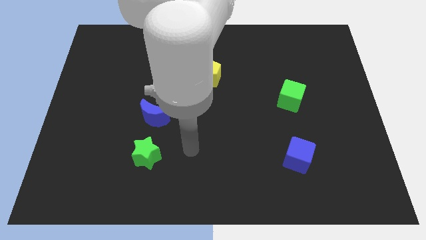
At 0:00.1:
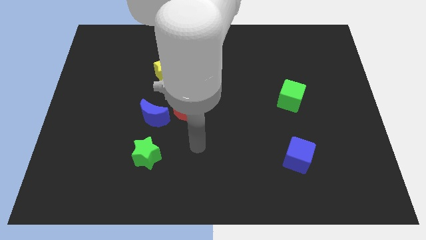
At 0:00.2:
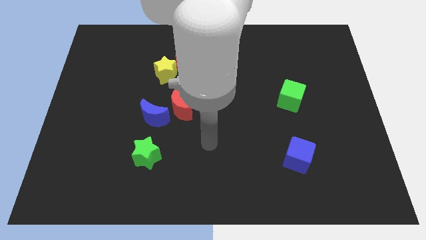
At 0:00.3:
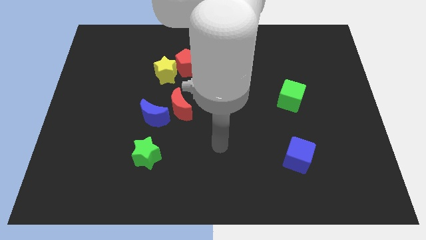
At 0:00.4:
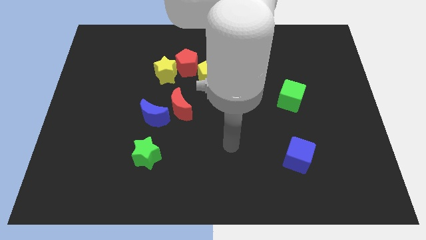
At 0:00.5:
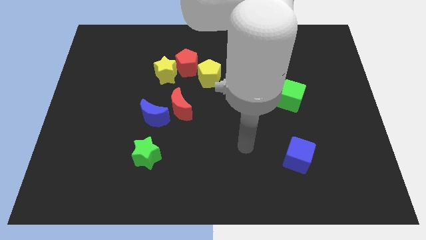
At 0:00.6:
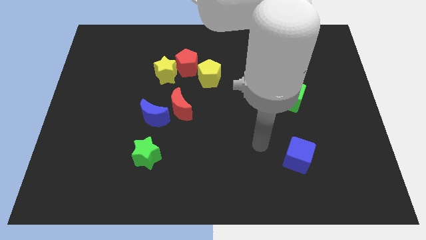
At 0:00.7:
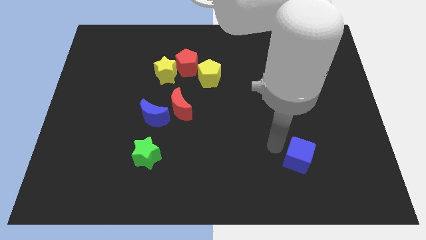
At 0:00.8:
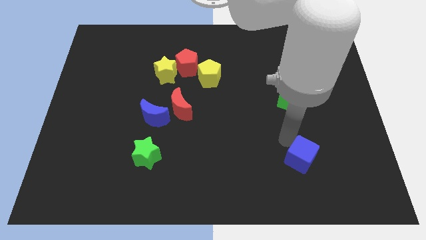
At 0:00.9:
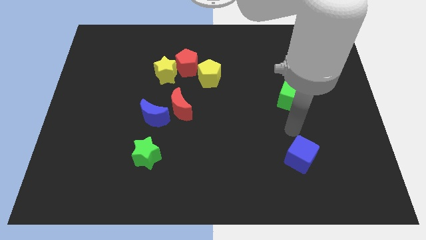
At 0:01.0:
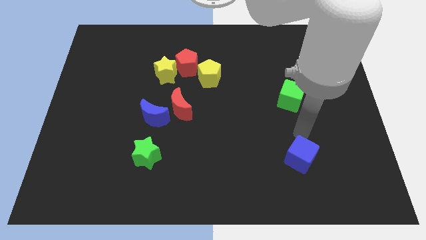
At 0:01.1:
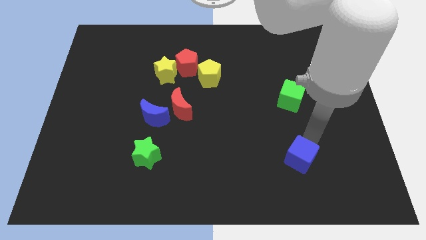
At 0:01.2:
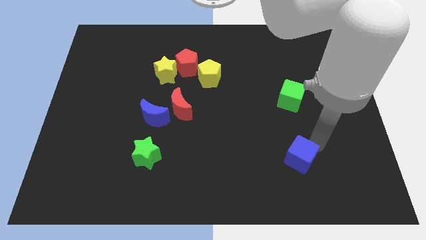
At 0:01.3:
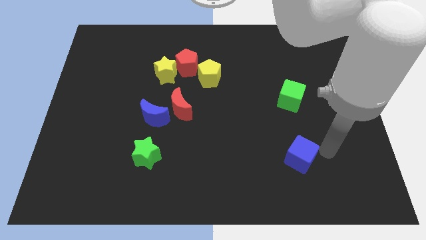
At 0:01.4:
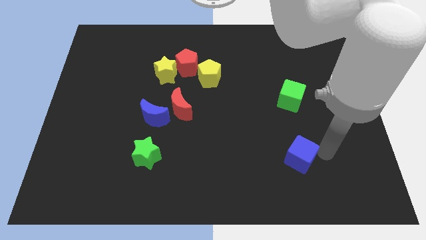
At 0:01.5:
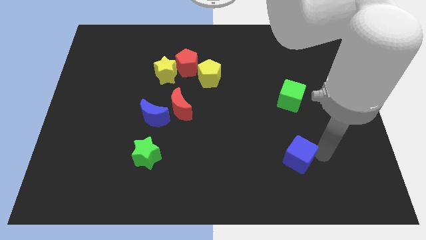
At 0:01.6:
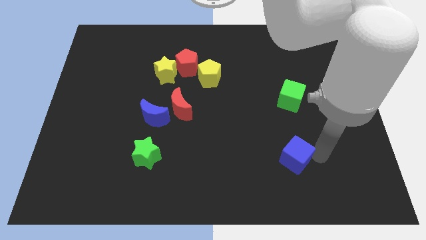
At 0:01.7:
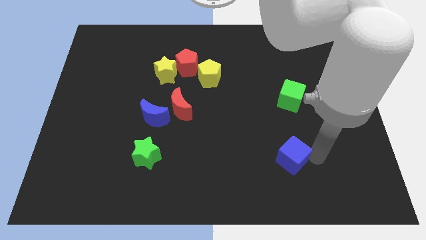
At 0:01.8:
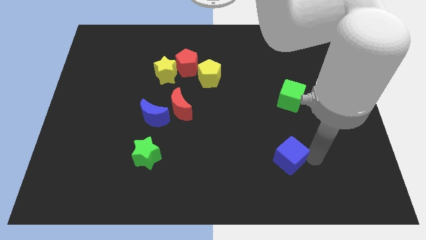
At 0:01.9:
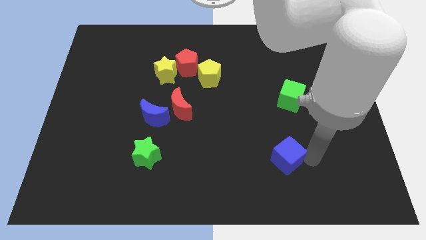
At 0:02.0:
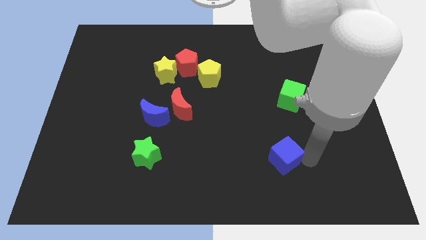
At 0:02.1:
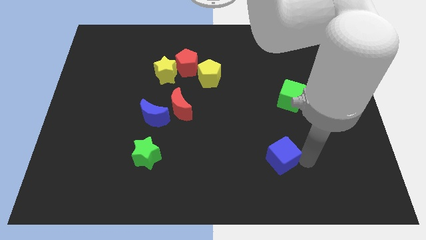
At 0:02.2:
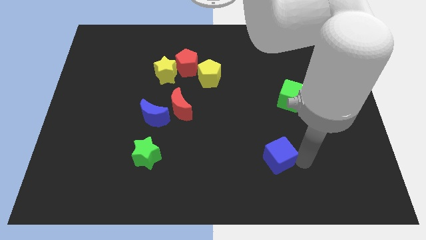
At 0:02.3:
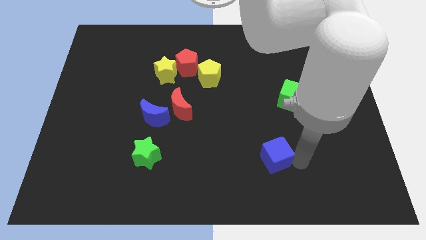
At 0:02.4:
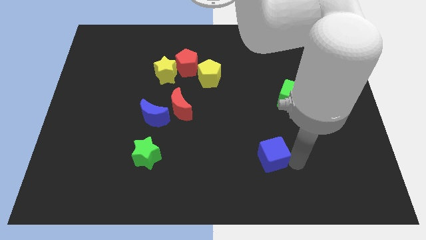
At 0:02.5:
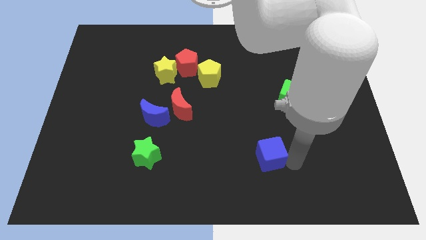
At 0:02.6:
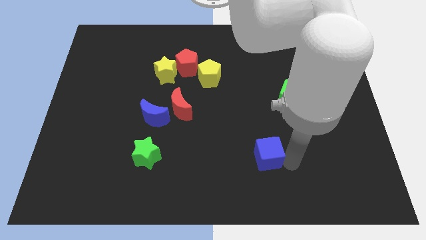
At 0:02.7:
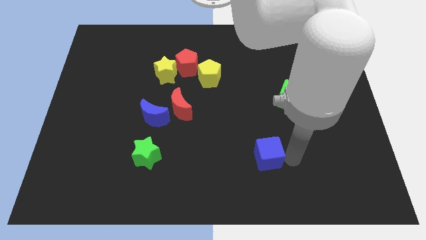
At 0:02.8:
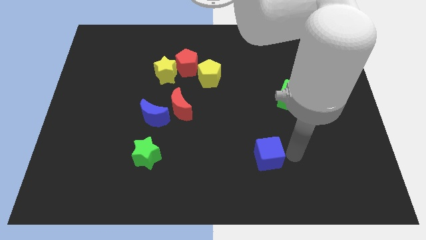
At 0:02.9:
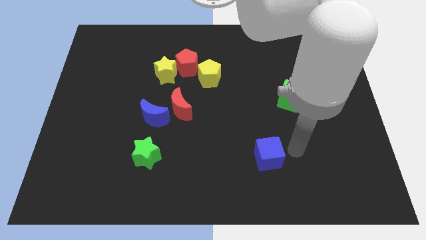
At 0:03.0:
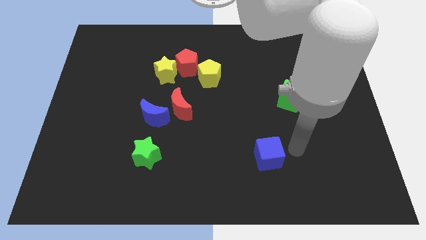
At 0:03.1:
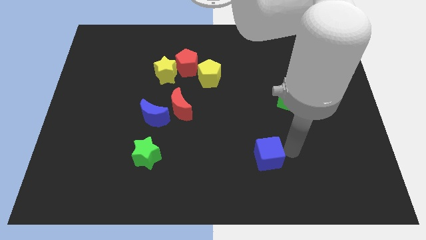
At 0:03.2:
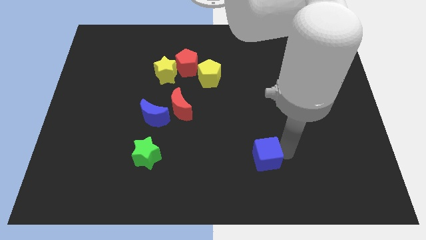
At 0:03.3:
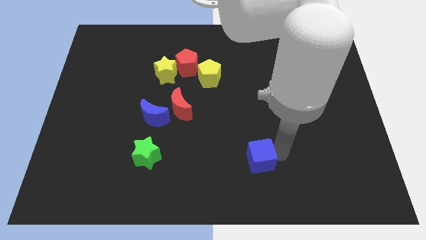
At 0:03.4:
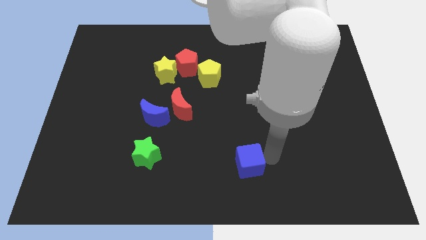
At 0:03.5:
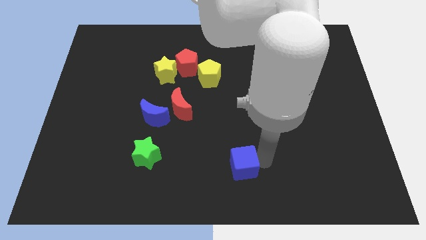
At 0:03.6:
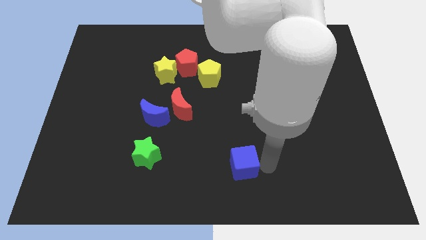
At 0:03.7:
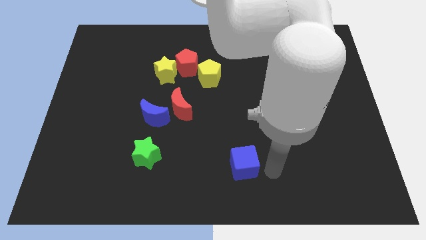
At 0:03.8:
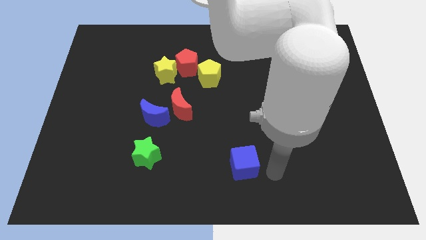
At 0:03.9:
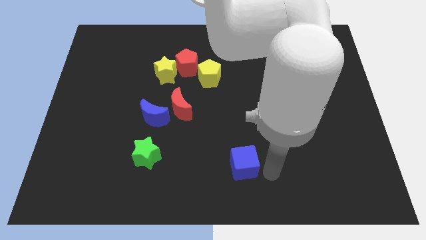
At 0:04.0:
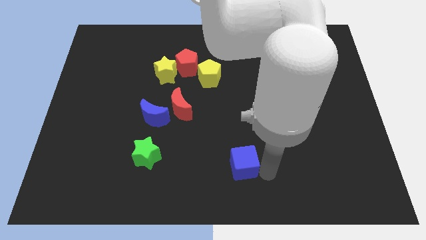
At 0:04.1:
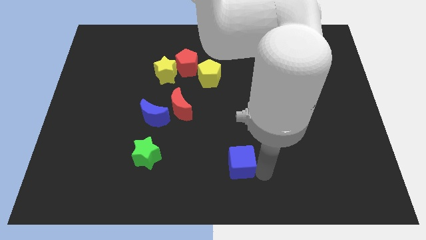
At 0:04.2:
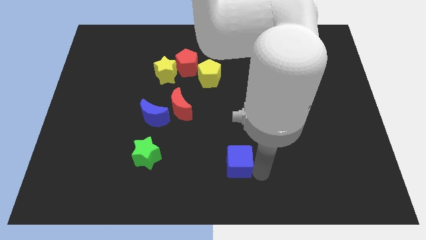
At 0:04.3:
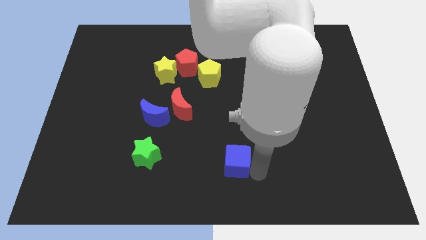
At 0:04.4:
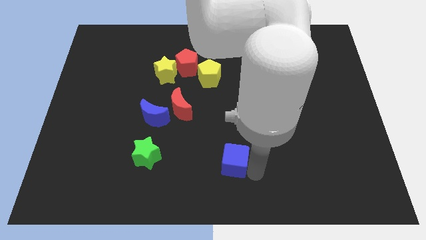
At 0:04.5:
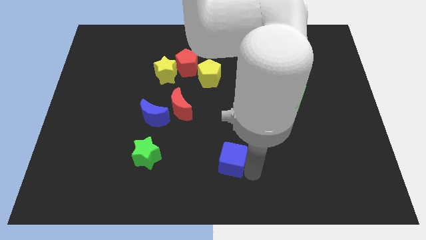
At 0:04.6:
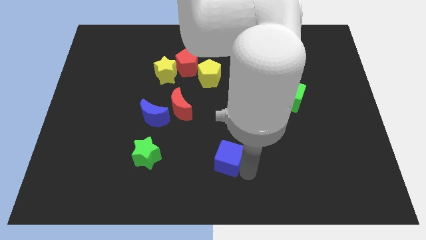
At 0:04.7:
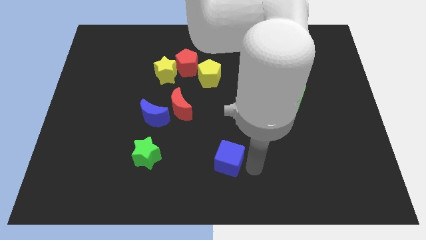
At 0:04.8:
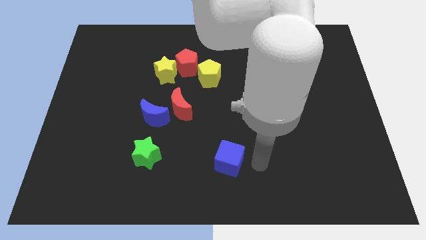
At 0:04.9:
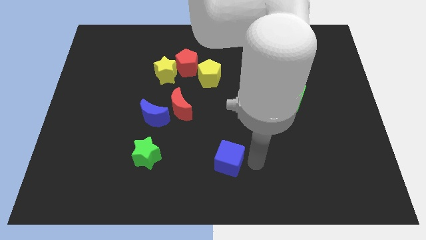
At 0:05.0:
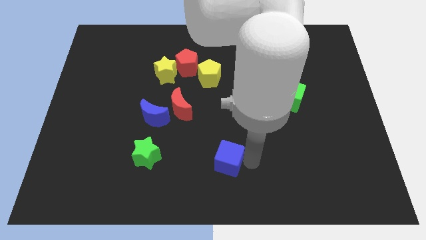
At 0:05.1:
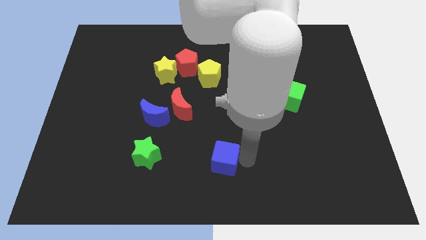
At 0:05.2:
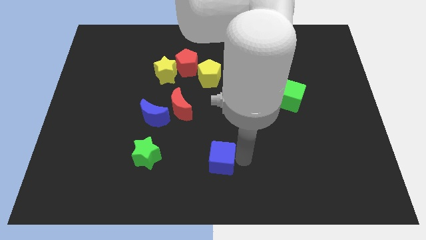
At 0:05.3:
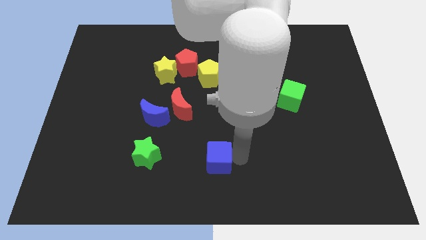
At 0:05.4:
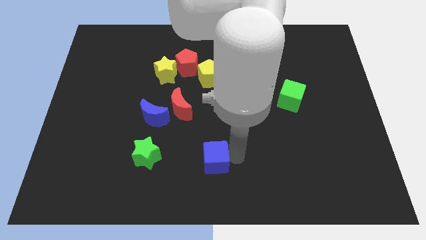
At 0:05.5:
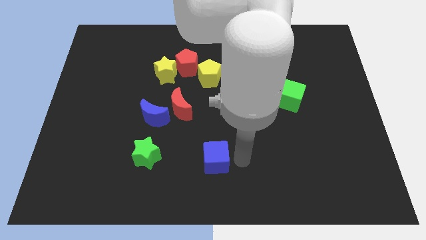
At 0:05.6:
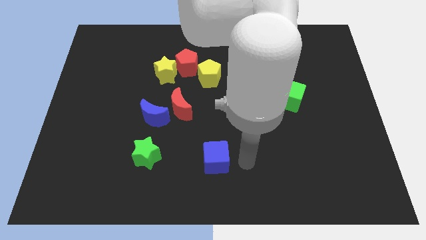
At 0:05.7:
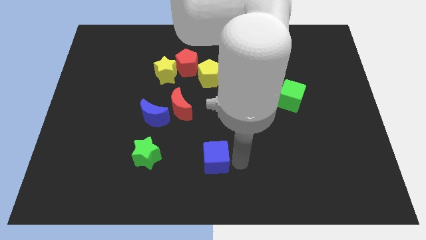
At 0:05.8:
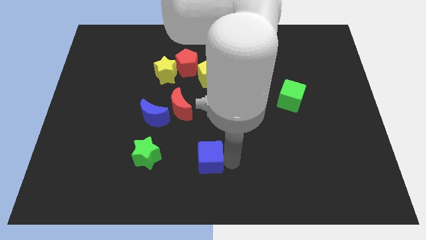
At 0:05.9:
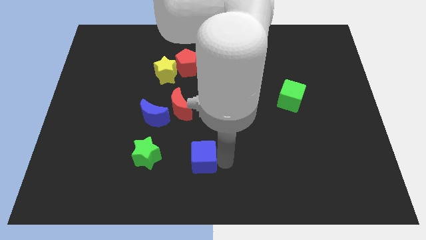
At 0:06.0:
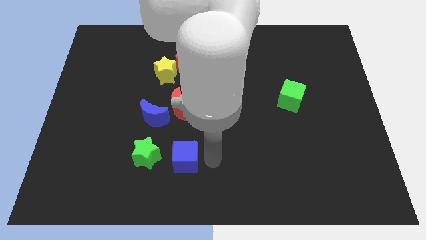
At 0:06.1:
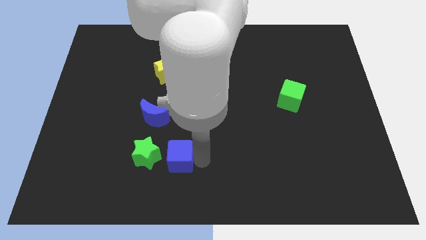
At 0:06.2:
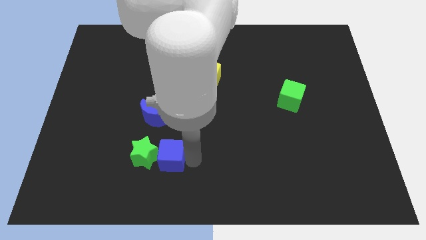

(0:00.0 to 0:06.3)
push the blue cube next to the green star

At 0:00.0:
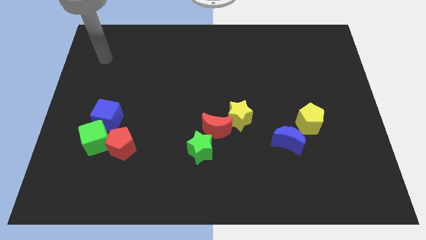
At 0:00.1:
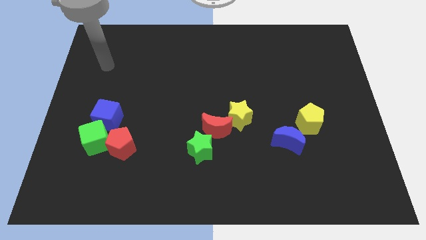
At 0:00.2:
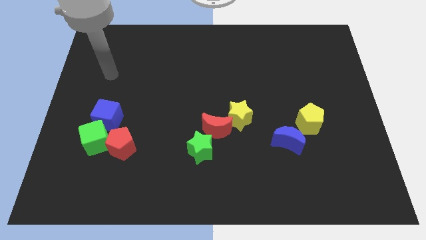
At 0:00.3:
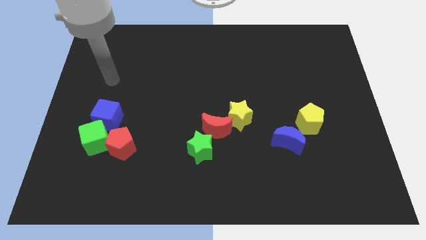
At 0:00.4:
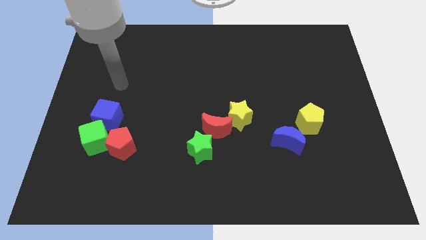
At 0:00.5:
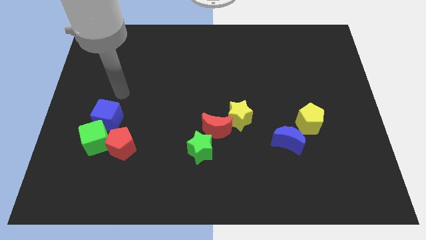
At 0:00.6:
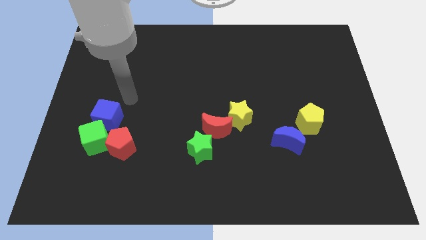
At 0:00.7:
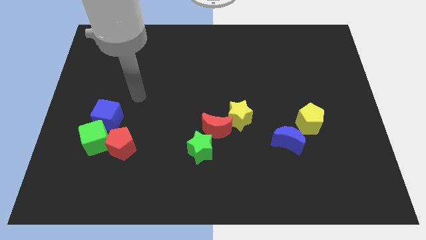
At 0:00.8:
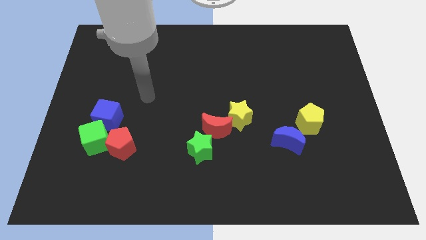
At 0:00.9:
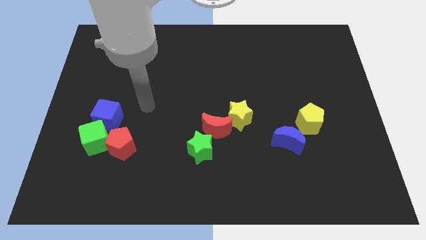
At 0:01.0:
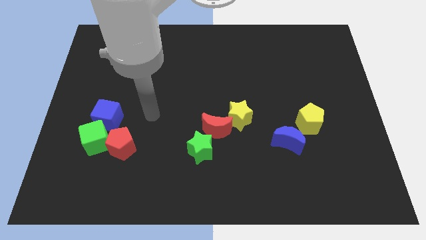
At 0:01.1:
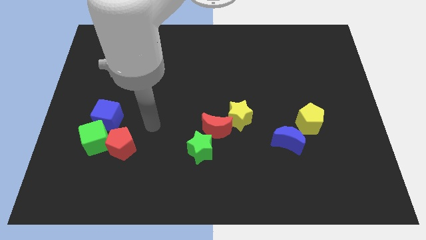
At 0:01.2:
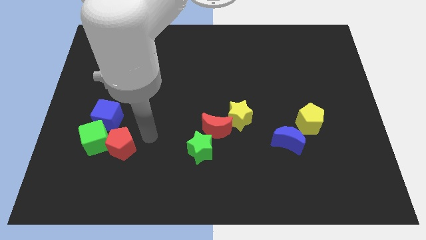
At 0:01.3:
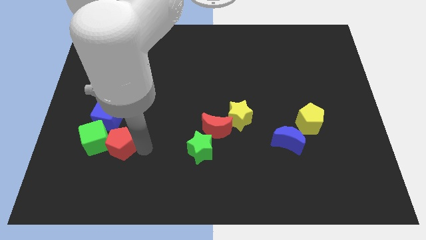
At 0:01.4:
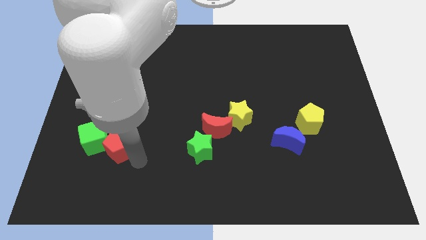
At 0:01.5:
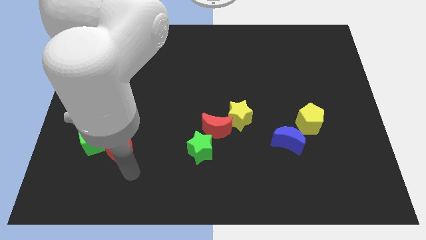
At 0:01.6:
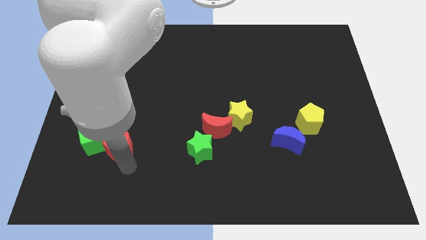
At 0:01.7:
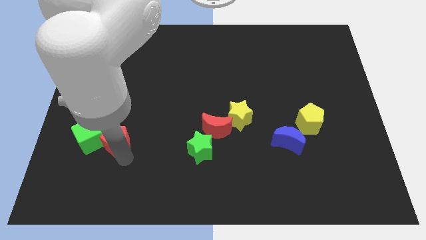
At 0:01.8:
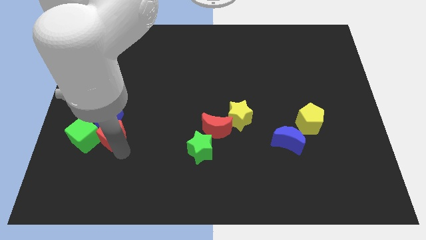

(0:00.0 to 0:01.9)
move the red pentagon towards the blue cube
